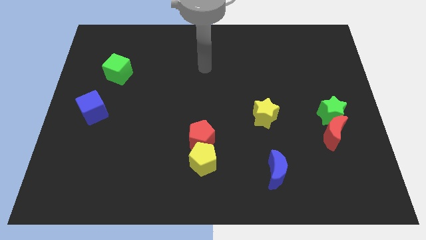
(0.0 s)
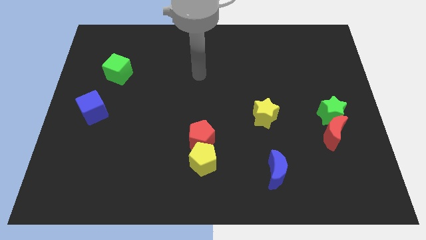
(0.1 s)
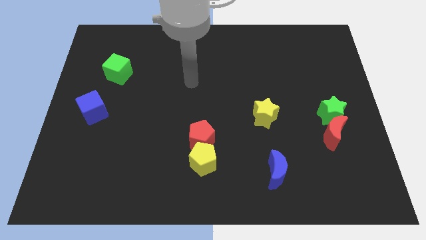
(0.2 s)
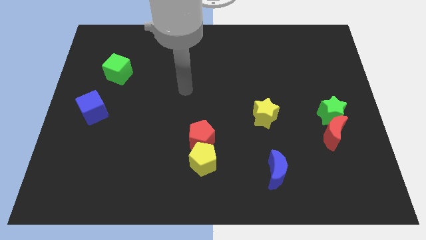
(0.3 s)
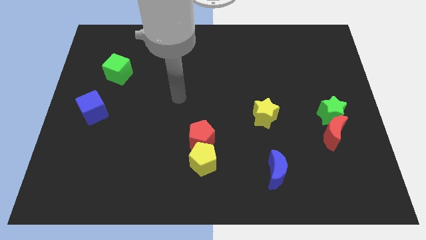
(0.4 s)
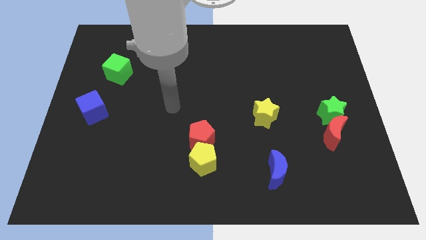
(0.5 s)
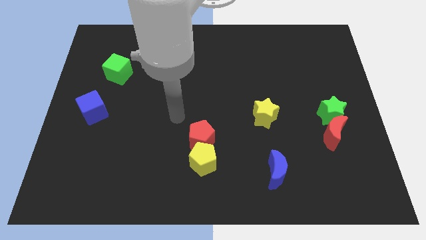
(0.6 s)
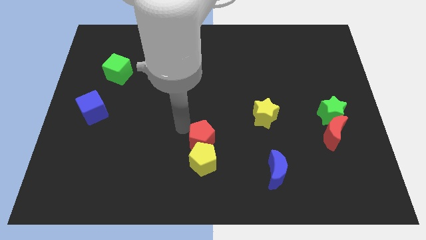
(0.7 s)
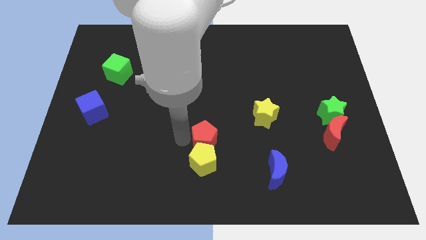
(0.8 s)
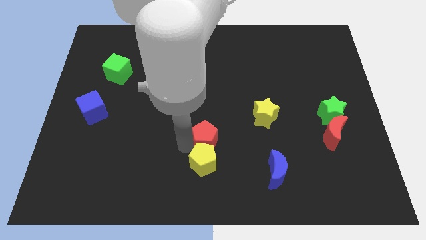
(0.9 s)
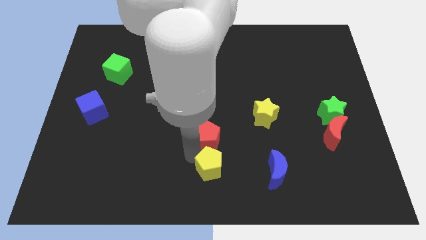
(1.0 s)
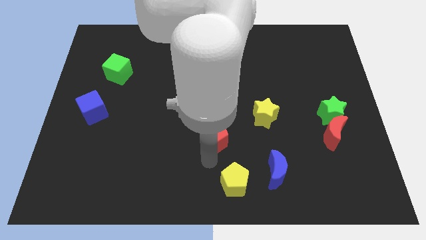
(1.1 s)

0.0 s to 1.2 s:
pull the red pentagon apart from the yellow pentagon

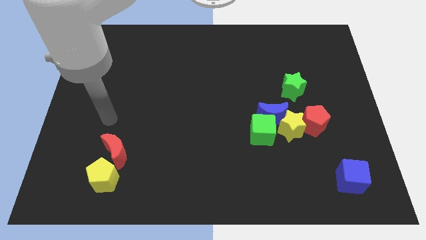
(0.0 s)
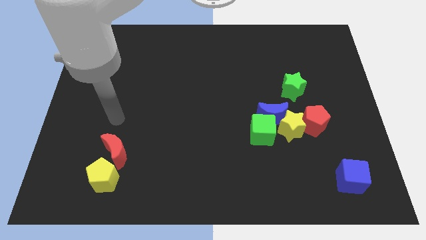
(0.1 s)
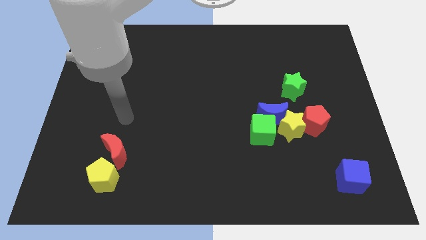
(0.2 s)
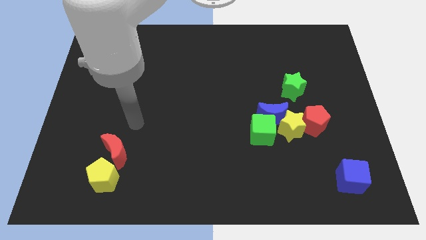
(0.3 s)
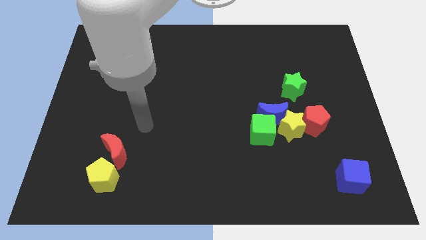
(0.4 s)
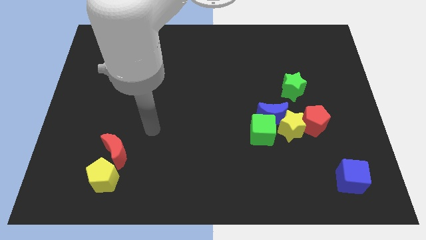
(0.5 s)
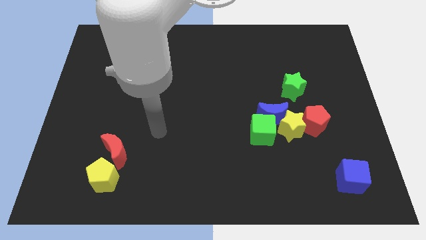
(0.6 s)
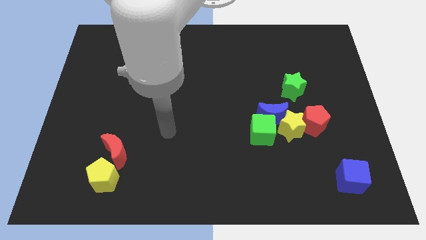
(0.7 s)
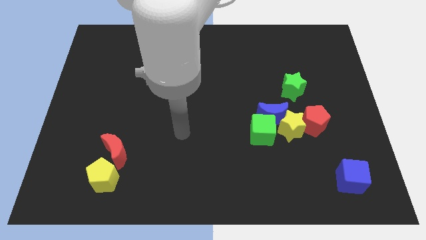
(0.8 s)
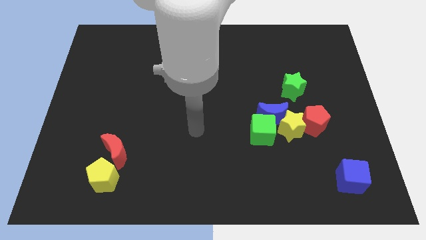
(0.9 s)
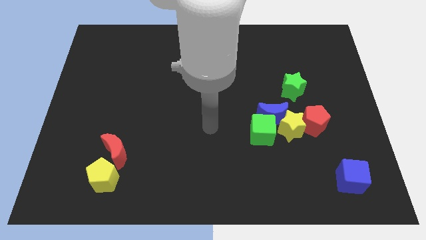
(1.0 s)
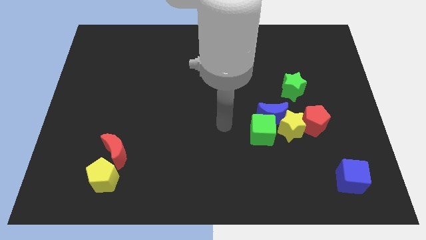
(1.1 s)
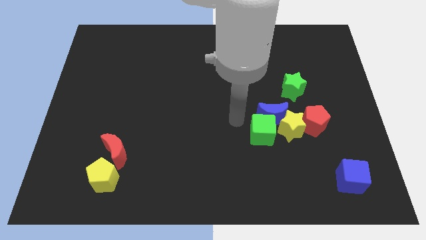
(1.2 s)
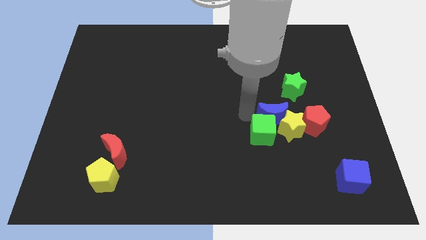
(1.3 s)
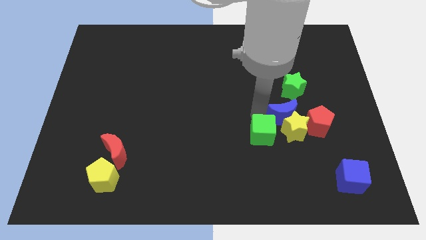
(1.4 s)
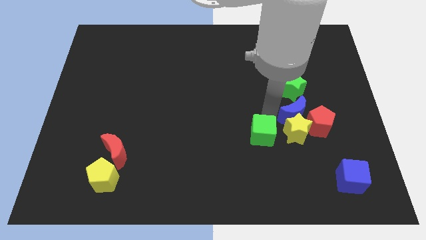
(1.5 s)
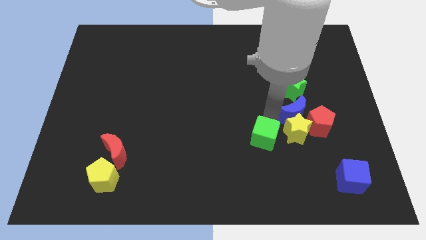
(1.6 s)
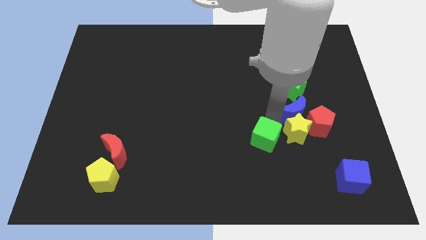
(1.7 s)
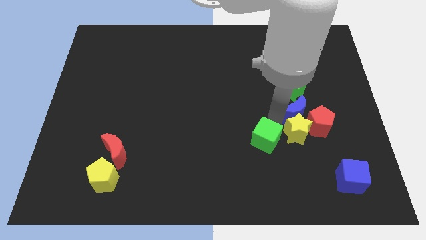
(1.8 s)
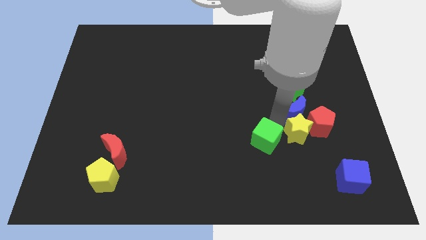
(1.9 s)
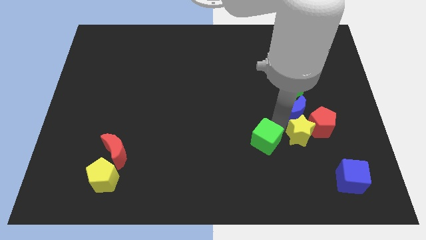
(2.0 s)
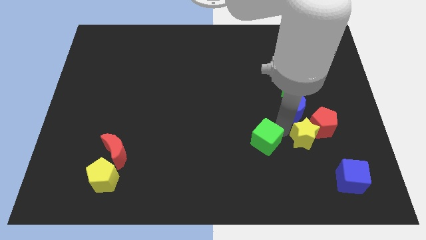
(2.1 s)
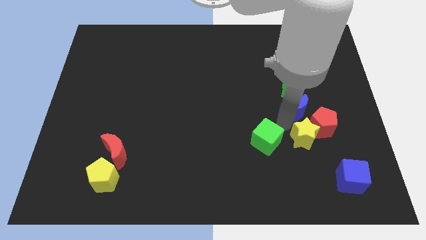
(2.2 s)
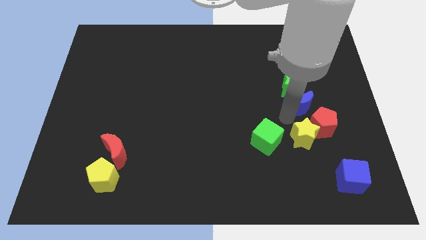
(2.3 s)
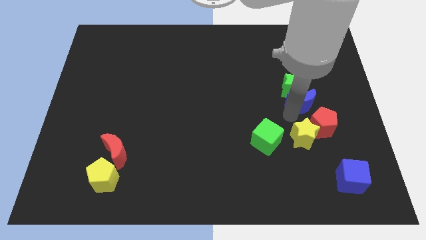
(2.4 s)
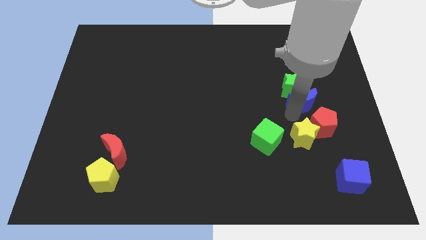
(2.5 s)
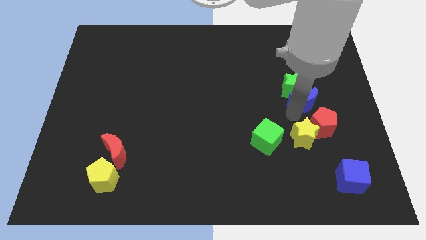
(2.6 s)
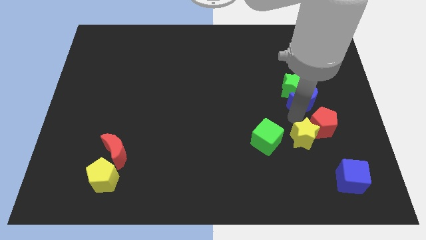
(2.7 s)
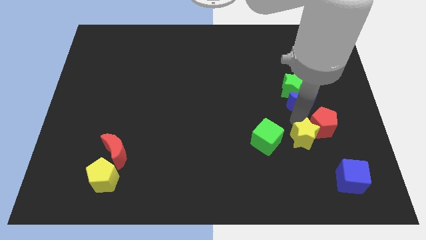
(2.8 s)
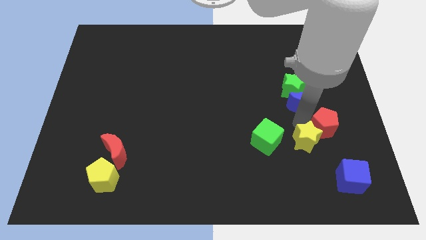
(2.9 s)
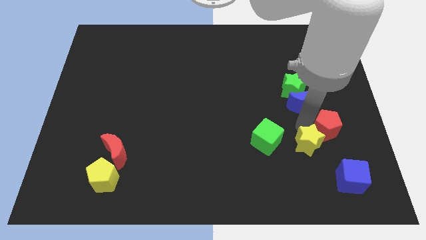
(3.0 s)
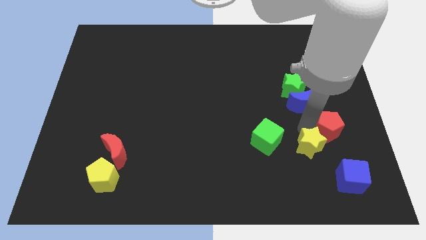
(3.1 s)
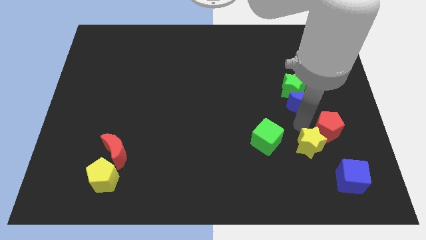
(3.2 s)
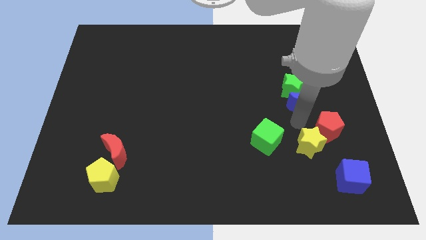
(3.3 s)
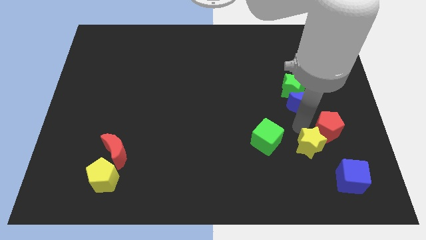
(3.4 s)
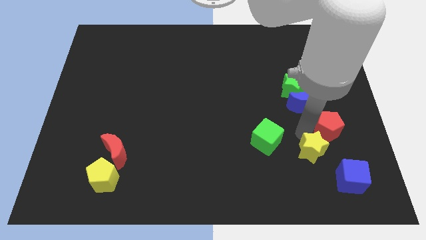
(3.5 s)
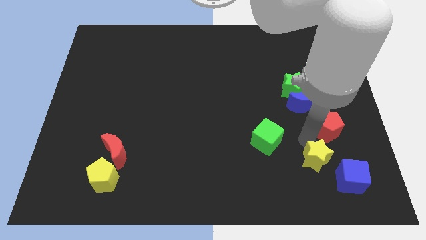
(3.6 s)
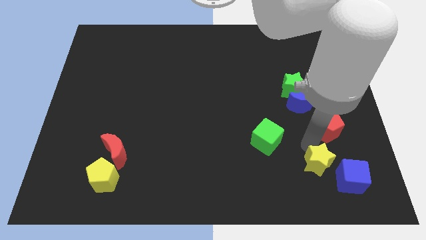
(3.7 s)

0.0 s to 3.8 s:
move the yellow star away from the blue moon, red pentagon, and green cube

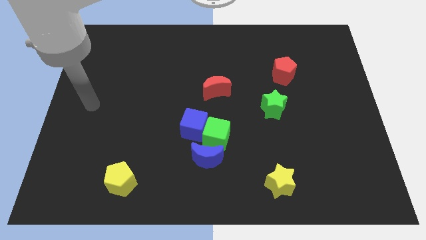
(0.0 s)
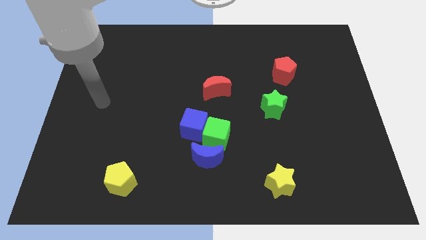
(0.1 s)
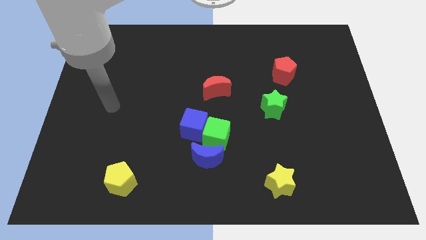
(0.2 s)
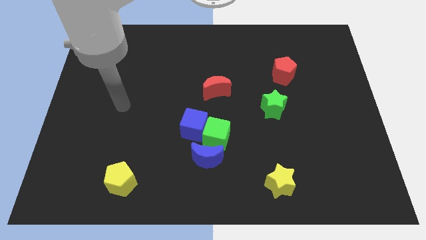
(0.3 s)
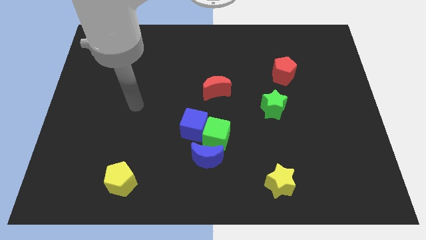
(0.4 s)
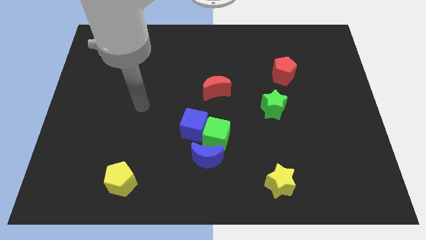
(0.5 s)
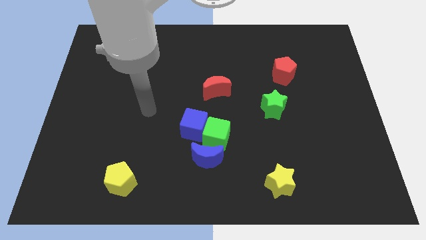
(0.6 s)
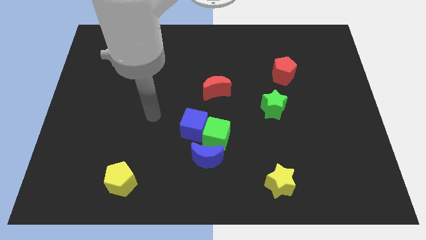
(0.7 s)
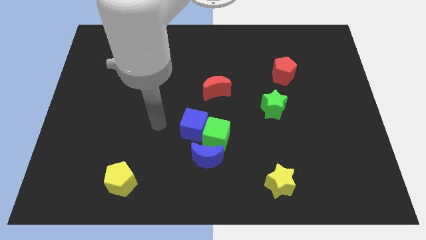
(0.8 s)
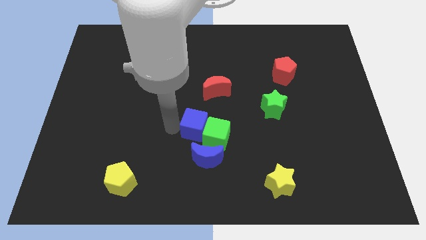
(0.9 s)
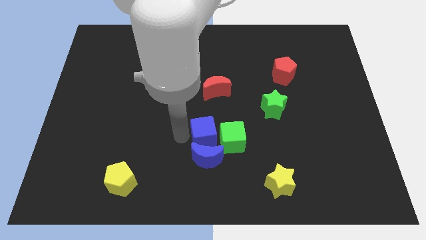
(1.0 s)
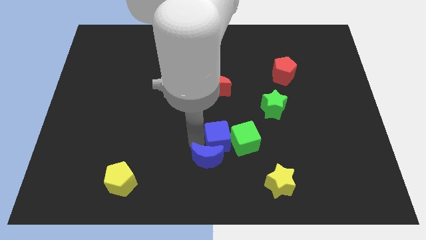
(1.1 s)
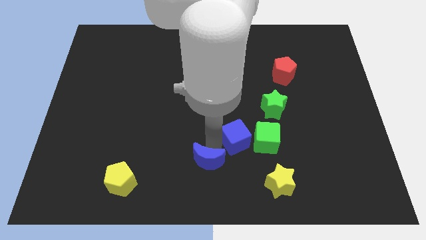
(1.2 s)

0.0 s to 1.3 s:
separate the green cube from the blue cube and blue moon

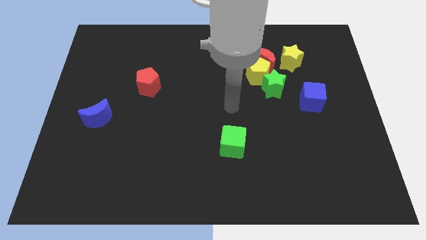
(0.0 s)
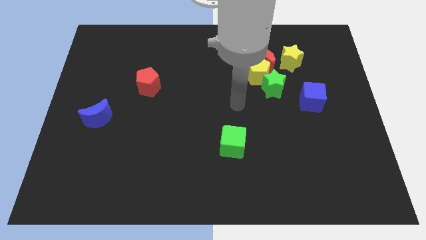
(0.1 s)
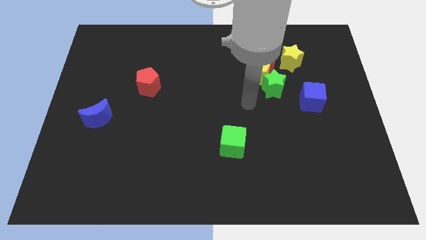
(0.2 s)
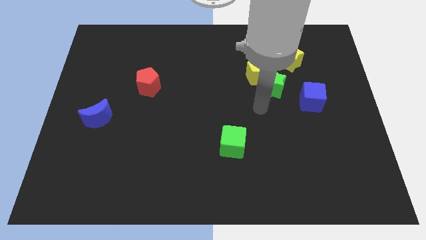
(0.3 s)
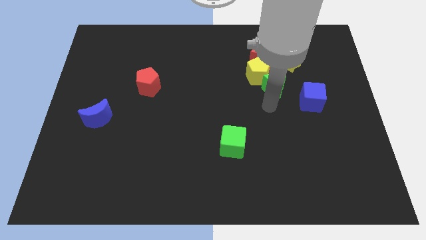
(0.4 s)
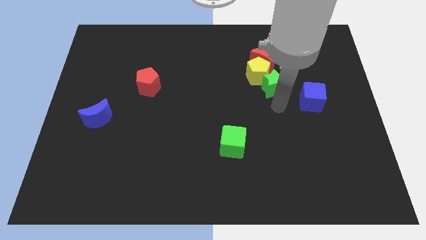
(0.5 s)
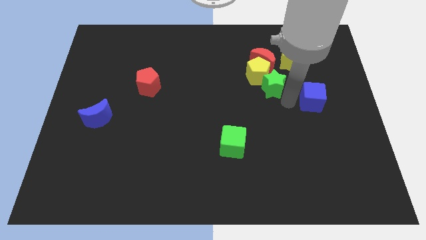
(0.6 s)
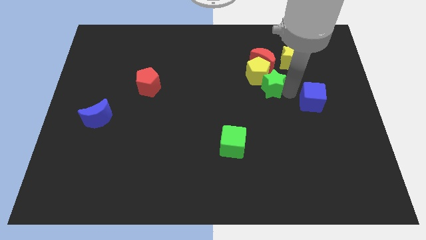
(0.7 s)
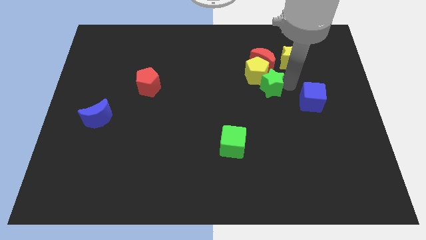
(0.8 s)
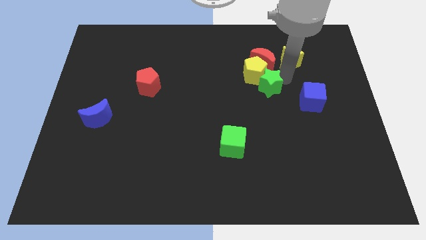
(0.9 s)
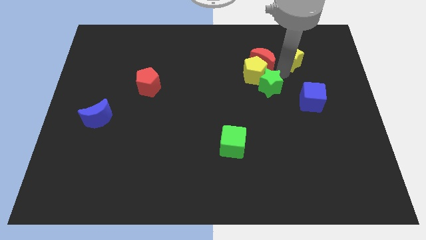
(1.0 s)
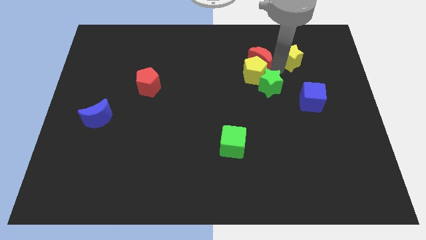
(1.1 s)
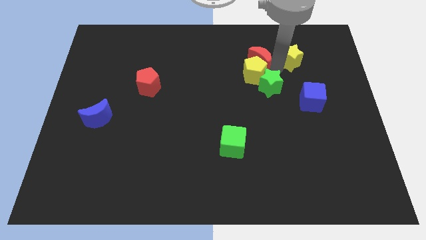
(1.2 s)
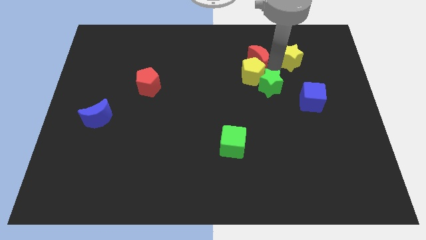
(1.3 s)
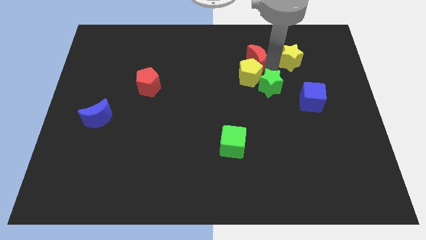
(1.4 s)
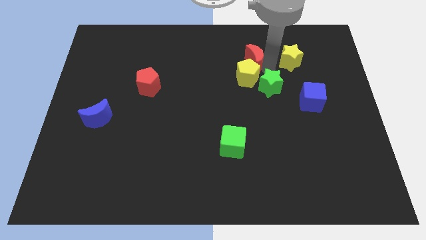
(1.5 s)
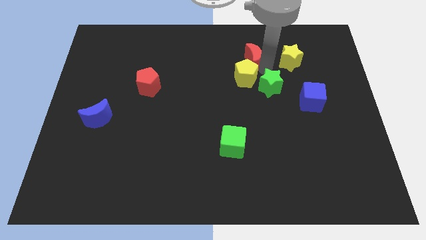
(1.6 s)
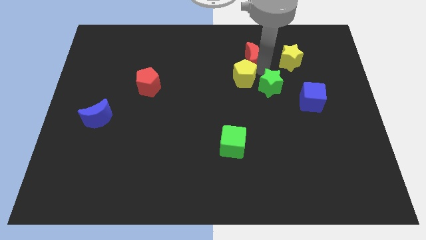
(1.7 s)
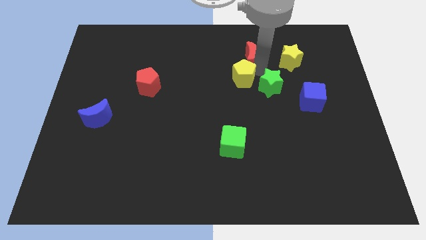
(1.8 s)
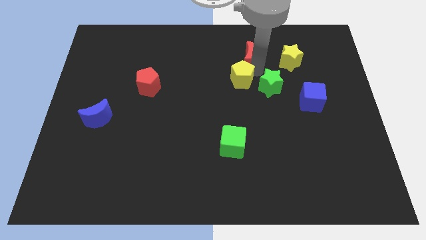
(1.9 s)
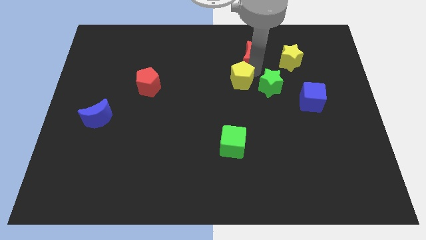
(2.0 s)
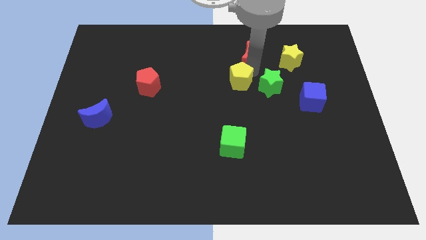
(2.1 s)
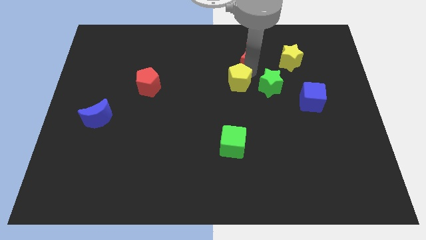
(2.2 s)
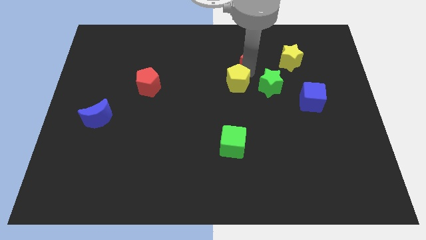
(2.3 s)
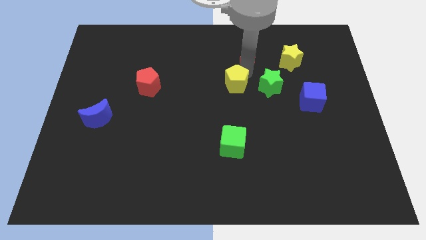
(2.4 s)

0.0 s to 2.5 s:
move the yellow pentagon away from the clump

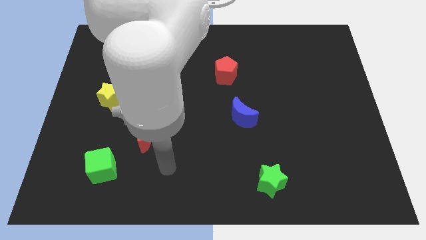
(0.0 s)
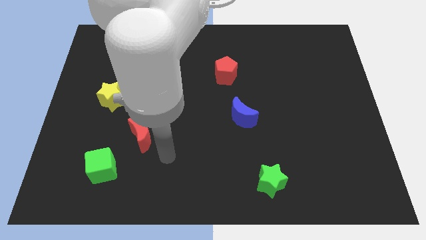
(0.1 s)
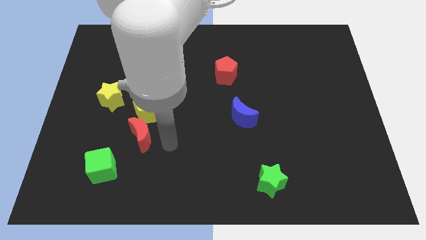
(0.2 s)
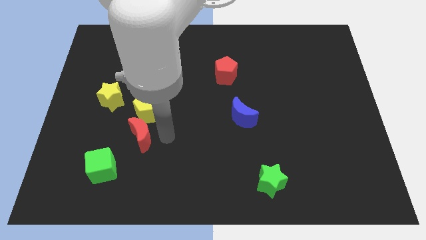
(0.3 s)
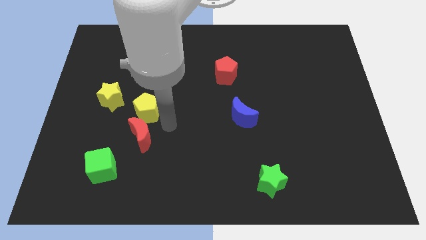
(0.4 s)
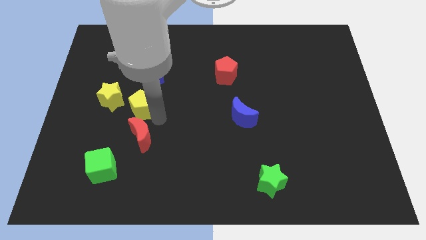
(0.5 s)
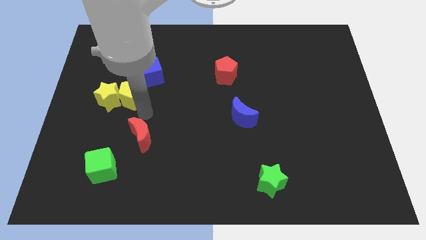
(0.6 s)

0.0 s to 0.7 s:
separate the red moon from the yellow pentagon
